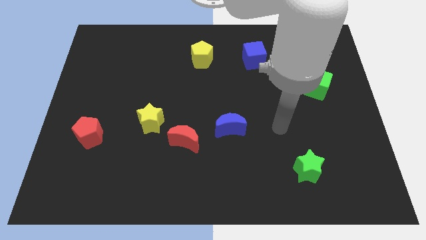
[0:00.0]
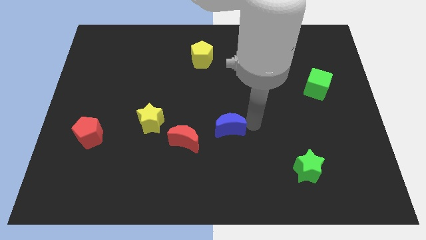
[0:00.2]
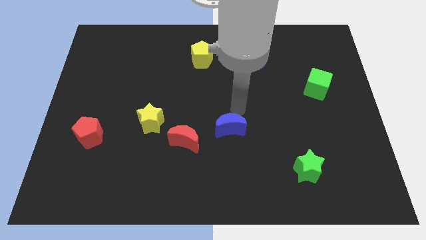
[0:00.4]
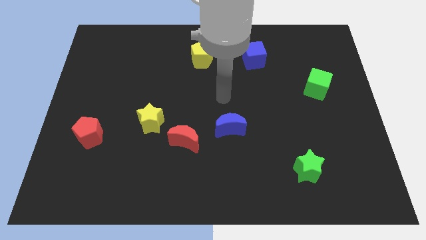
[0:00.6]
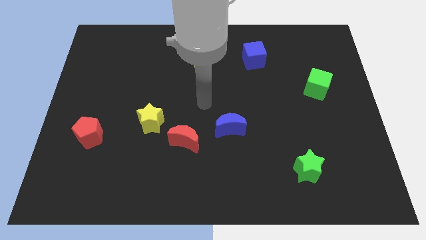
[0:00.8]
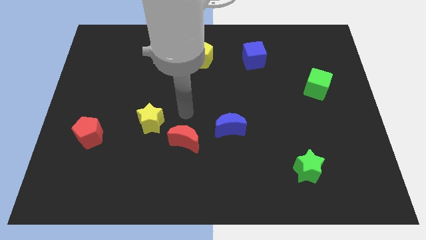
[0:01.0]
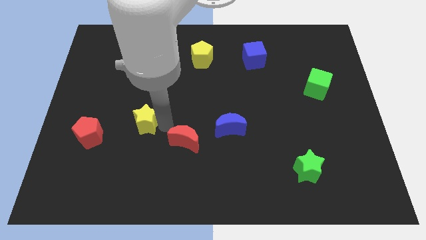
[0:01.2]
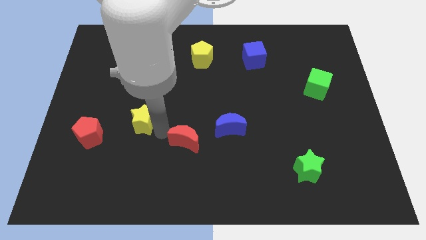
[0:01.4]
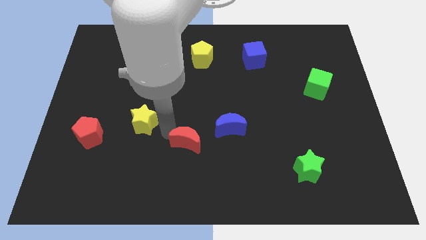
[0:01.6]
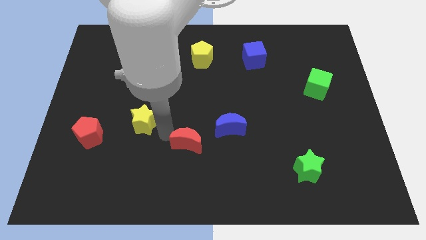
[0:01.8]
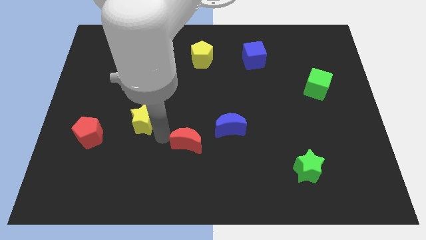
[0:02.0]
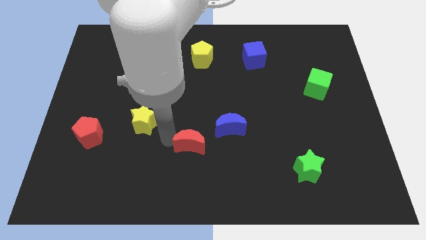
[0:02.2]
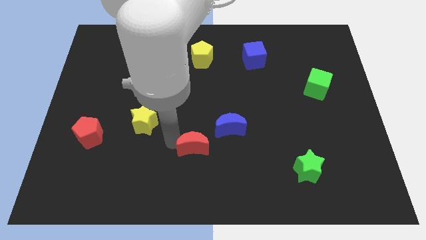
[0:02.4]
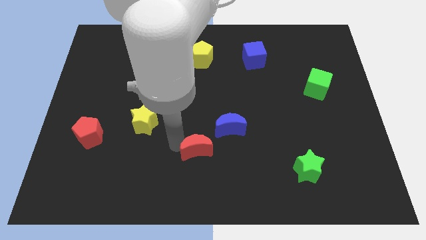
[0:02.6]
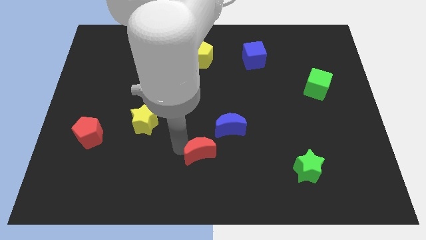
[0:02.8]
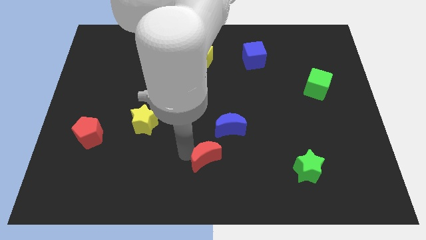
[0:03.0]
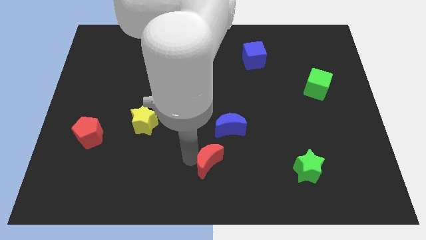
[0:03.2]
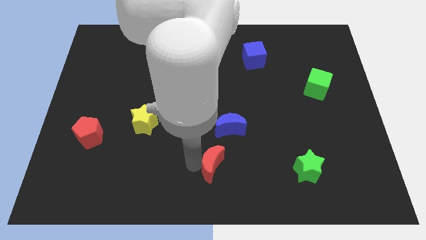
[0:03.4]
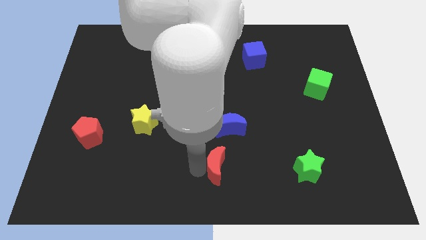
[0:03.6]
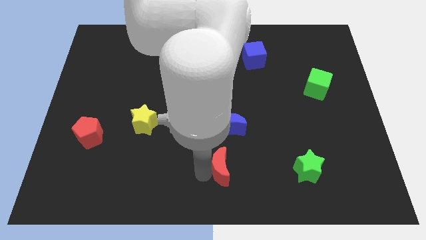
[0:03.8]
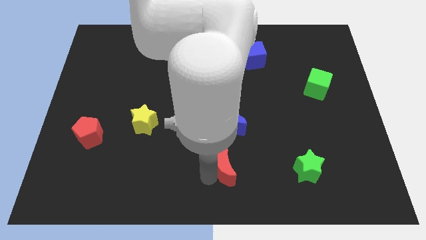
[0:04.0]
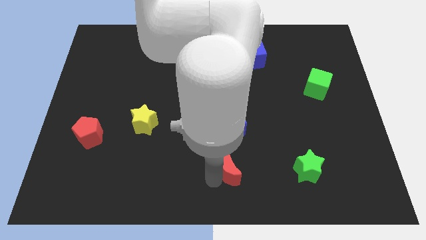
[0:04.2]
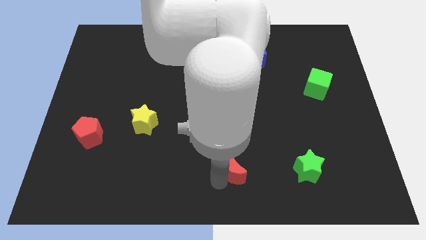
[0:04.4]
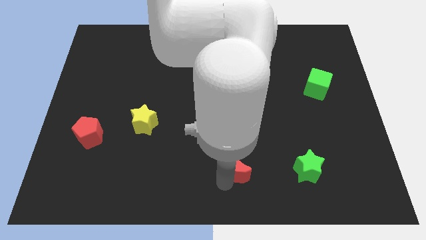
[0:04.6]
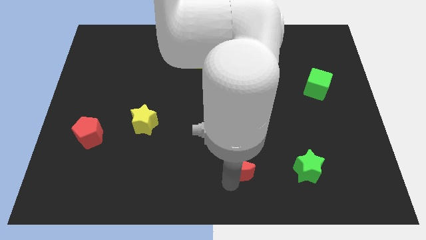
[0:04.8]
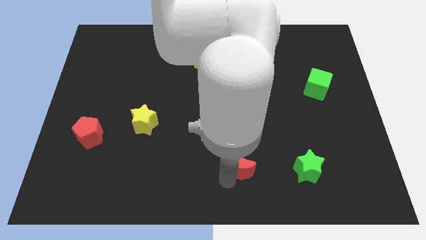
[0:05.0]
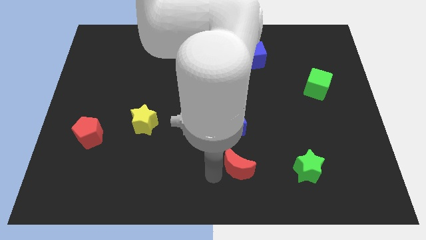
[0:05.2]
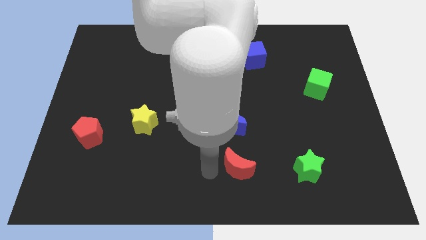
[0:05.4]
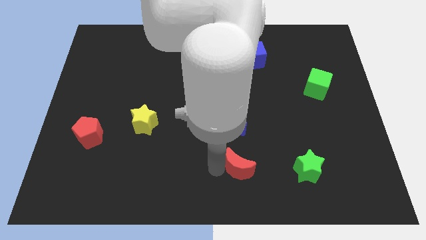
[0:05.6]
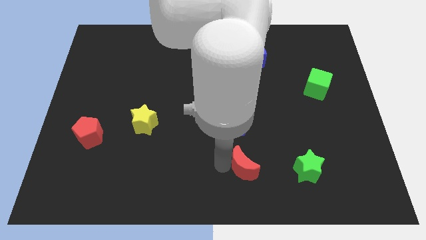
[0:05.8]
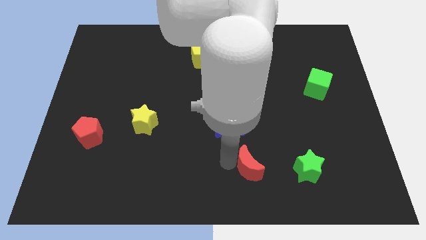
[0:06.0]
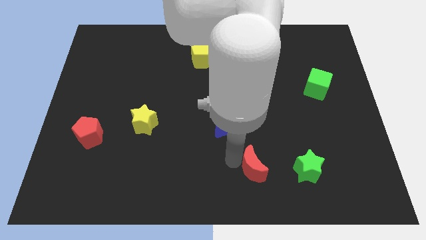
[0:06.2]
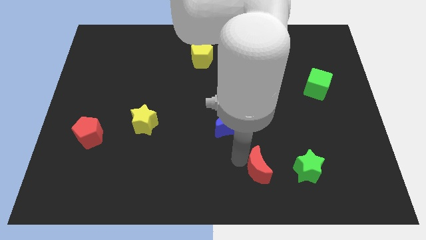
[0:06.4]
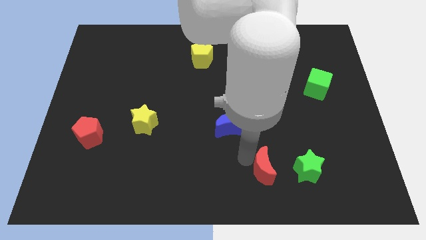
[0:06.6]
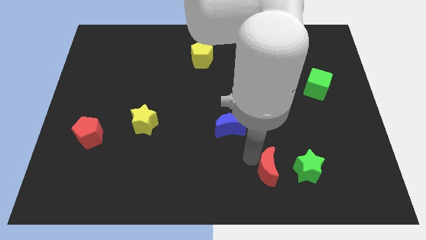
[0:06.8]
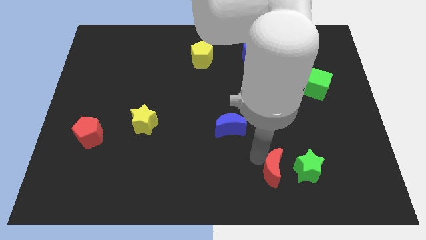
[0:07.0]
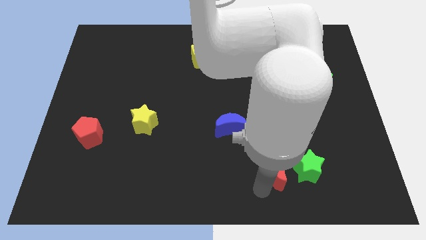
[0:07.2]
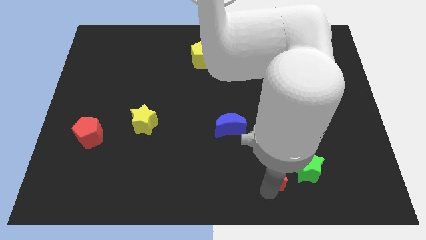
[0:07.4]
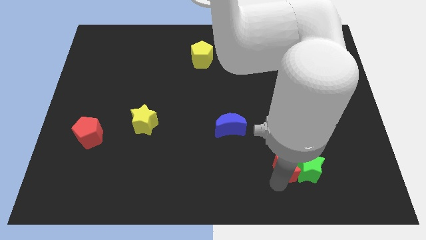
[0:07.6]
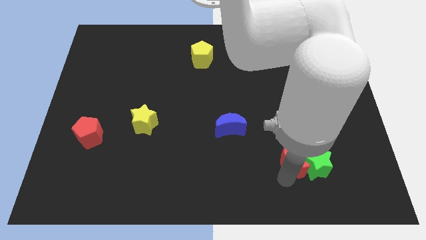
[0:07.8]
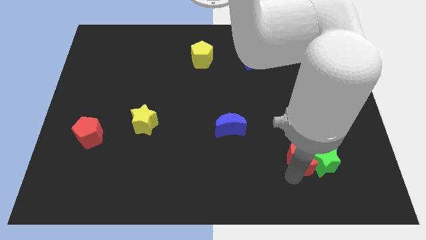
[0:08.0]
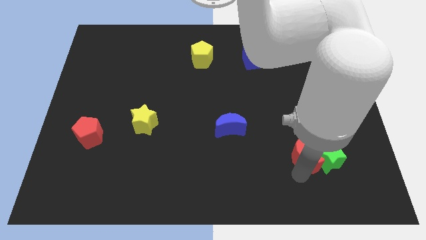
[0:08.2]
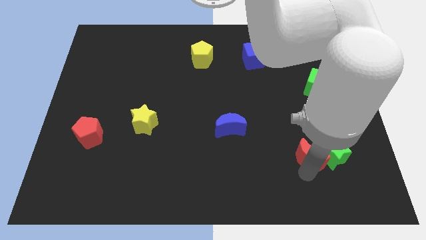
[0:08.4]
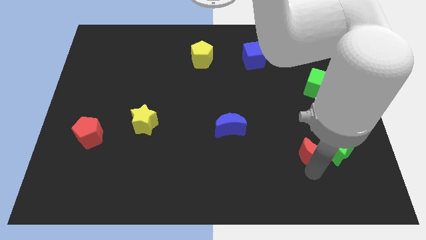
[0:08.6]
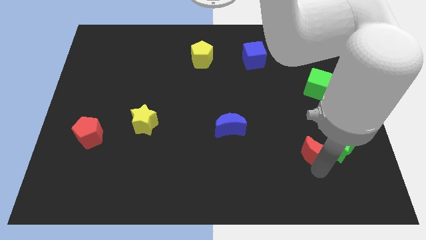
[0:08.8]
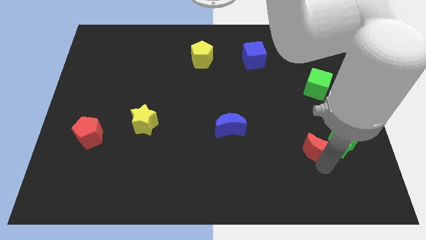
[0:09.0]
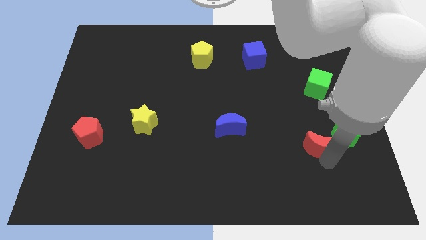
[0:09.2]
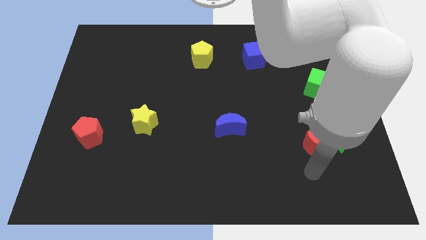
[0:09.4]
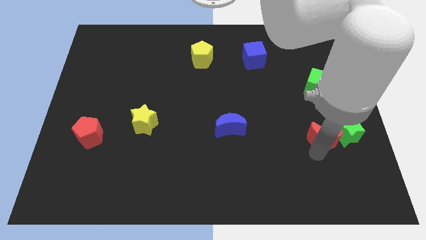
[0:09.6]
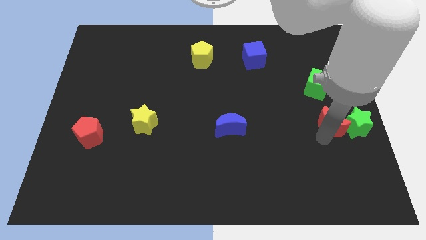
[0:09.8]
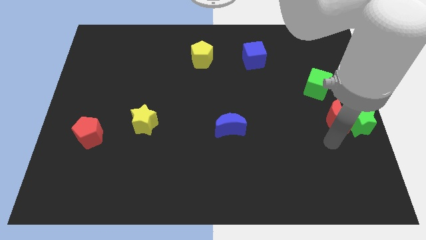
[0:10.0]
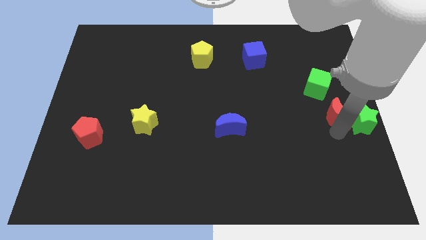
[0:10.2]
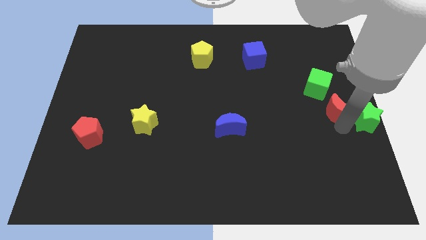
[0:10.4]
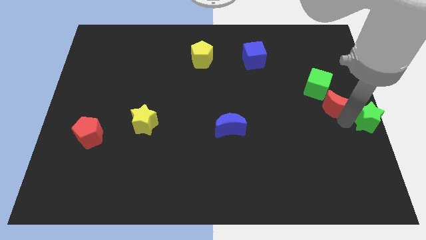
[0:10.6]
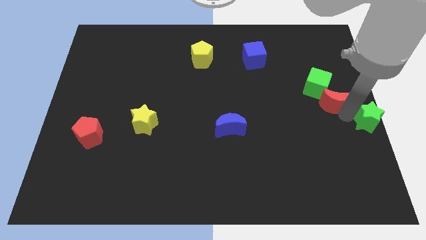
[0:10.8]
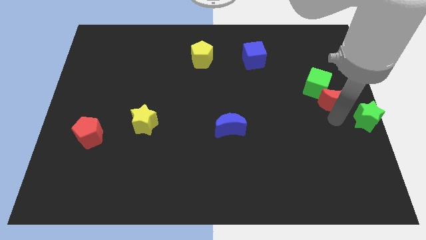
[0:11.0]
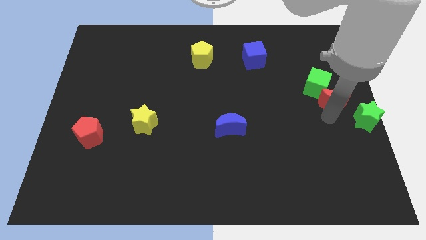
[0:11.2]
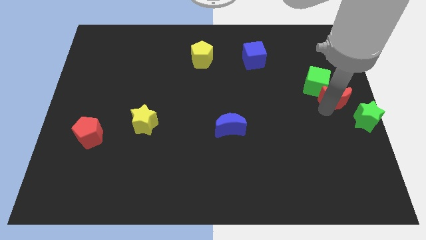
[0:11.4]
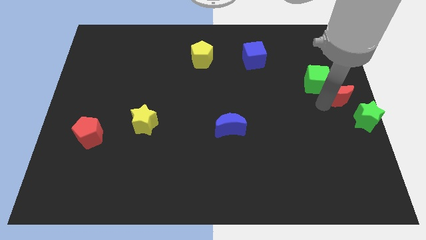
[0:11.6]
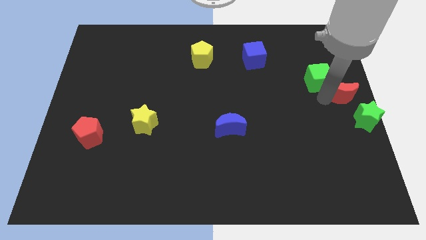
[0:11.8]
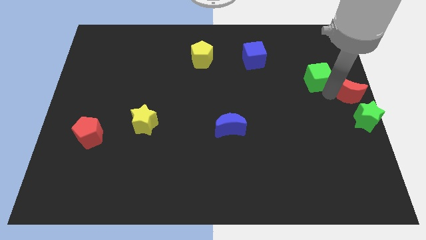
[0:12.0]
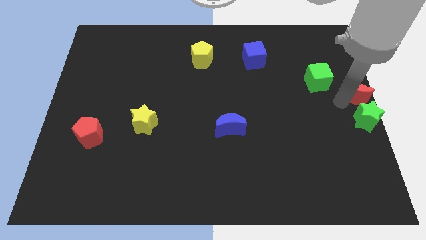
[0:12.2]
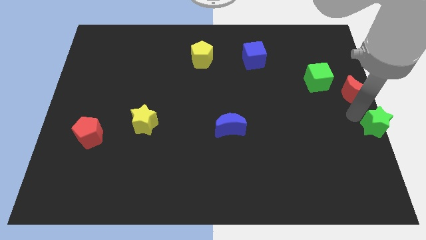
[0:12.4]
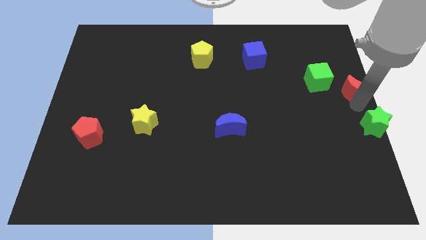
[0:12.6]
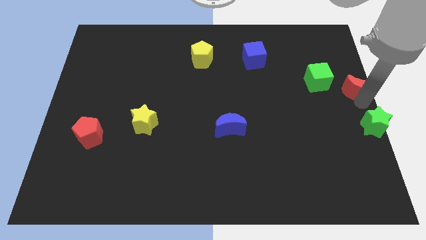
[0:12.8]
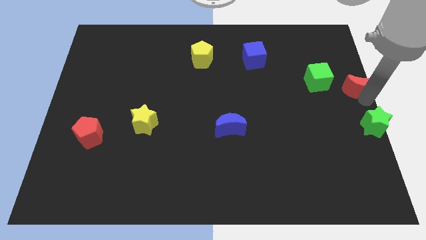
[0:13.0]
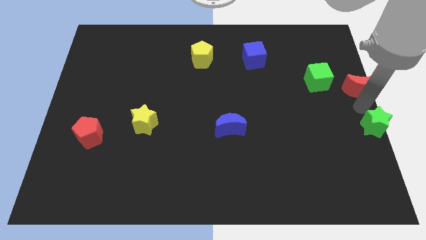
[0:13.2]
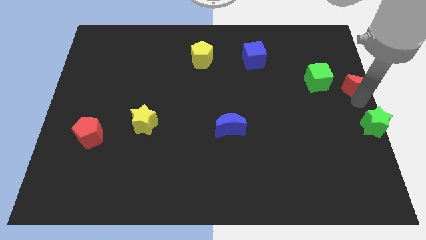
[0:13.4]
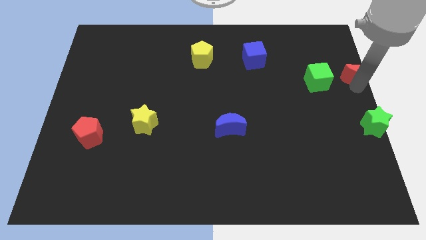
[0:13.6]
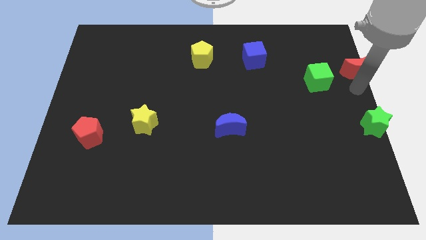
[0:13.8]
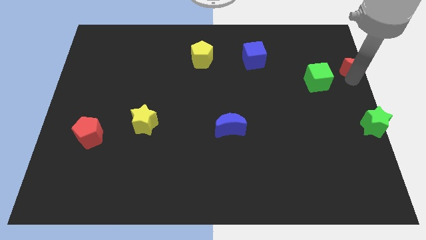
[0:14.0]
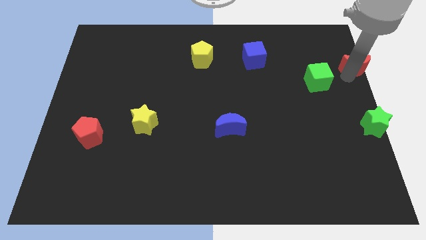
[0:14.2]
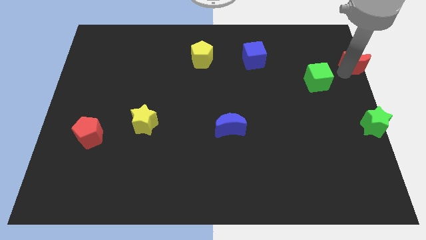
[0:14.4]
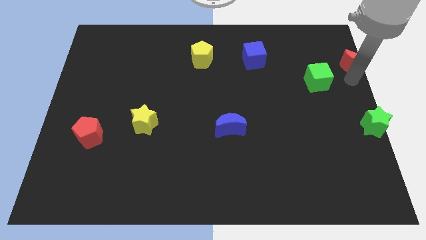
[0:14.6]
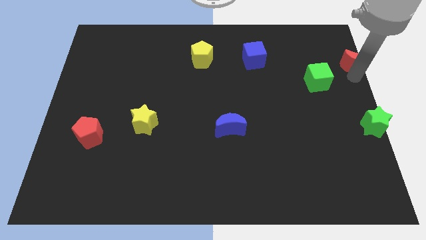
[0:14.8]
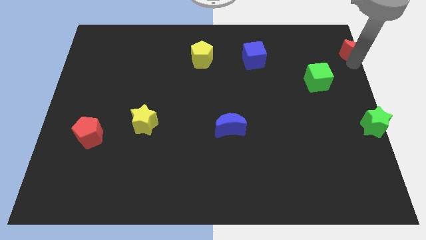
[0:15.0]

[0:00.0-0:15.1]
move the red moon to the upper right corner
